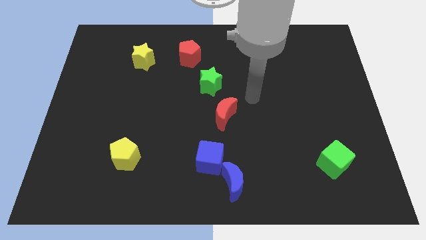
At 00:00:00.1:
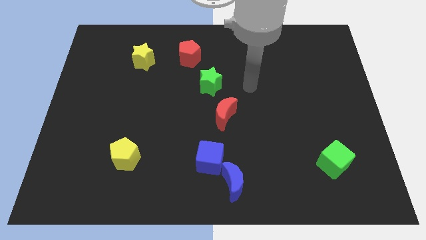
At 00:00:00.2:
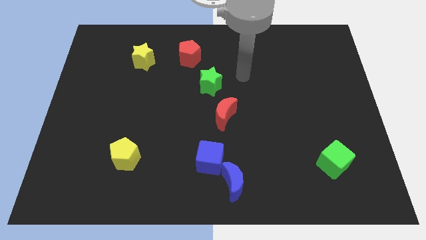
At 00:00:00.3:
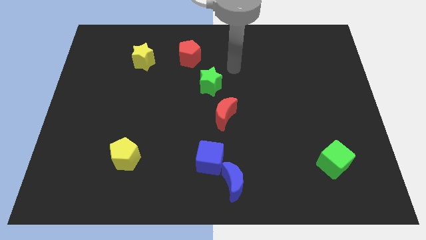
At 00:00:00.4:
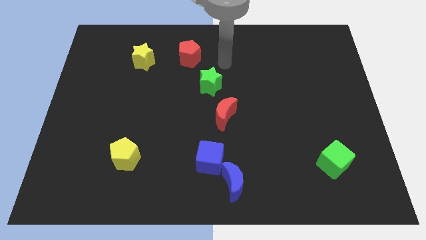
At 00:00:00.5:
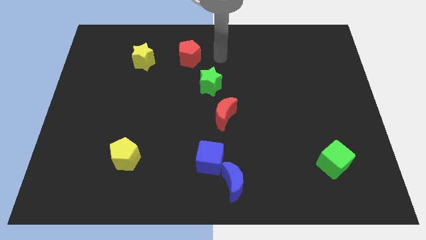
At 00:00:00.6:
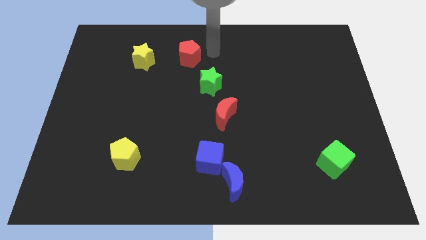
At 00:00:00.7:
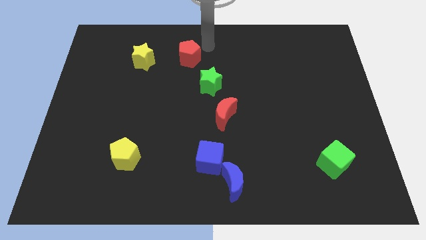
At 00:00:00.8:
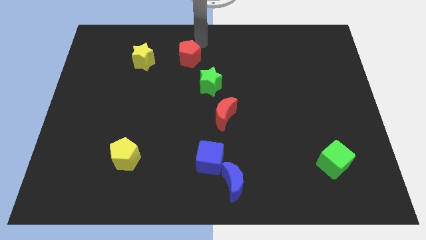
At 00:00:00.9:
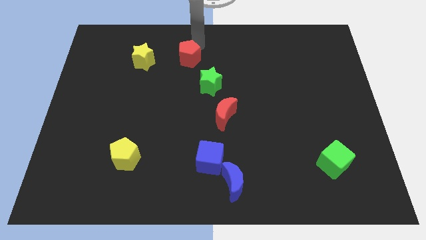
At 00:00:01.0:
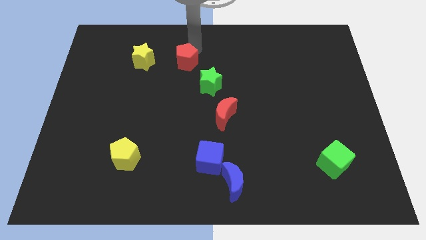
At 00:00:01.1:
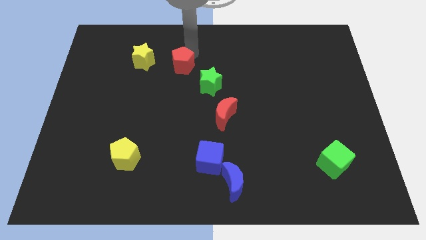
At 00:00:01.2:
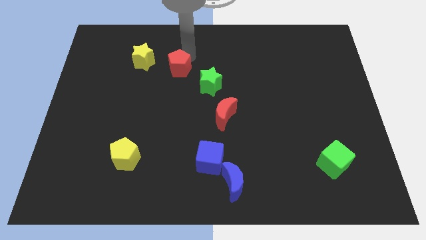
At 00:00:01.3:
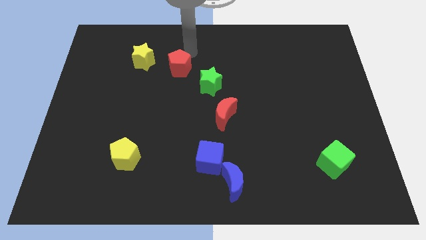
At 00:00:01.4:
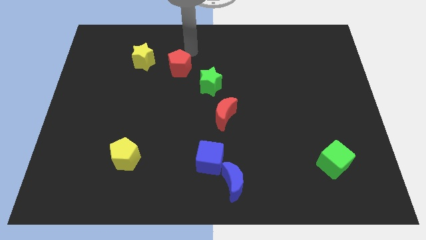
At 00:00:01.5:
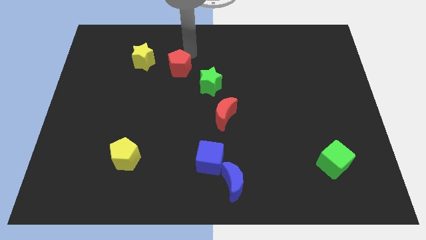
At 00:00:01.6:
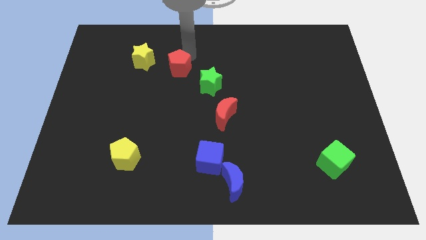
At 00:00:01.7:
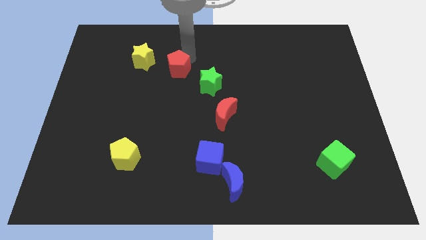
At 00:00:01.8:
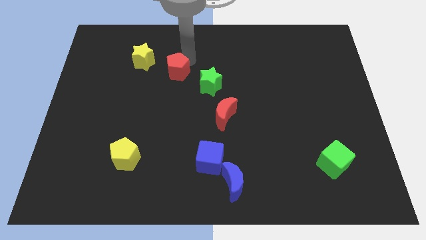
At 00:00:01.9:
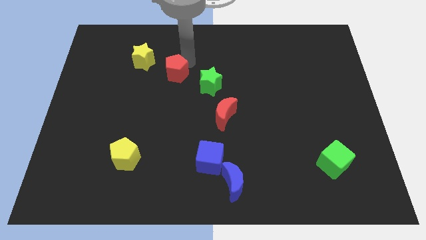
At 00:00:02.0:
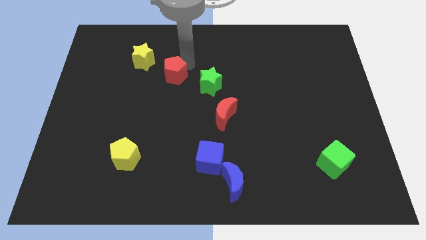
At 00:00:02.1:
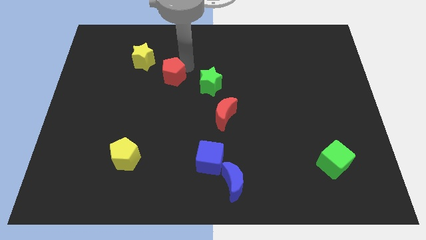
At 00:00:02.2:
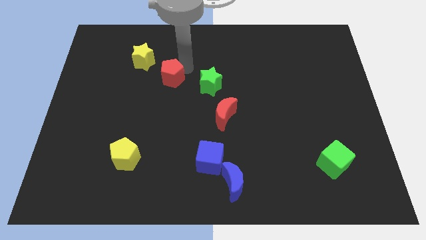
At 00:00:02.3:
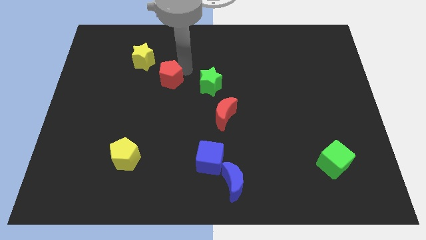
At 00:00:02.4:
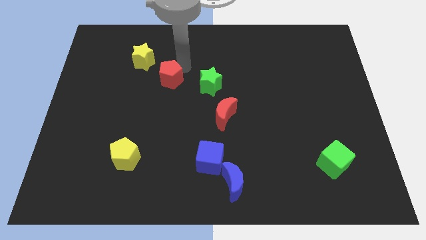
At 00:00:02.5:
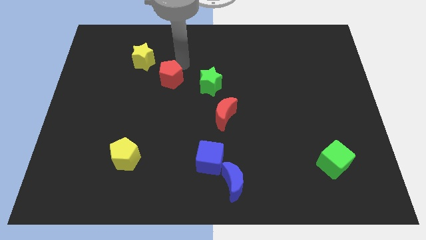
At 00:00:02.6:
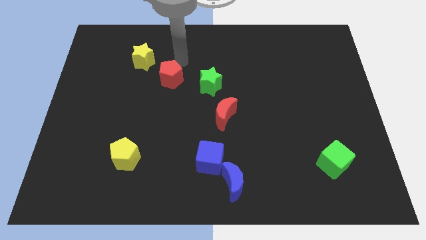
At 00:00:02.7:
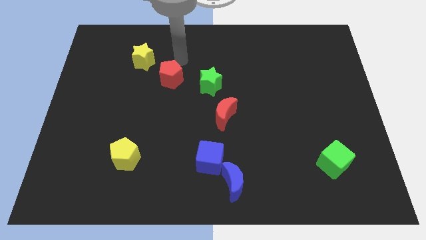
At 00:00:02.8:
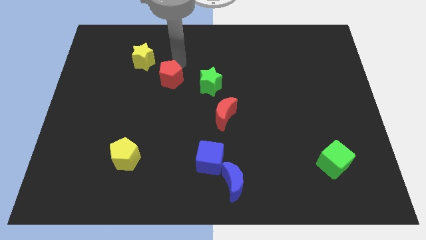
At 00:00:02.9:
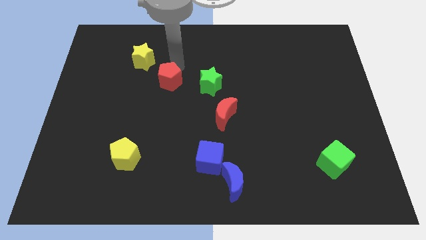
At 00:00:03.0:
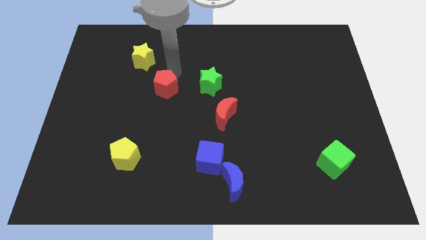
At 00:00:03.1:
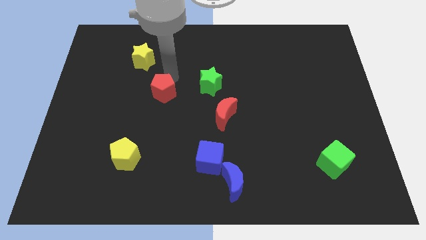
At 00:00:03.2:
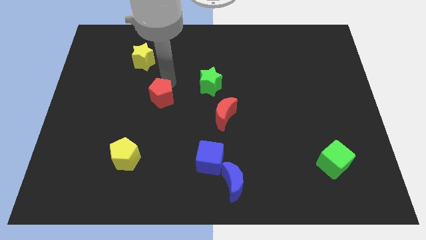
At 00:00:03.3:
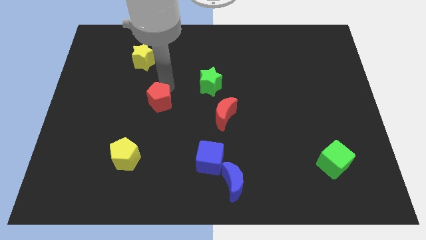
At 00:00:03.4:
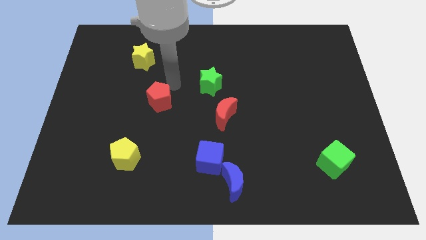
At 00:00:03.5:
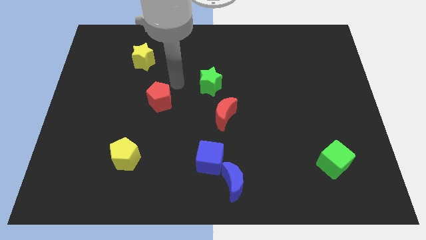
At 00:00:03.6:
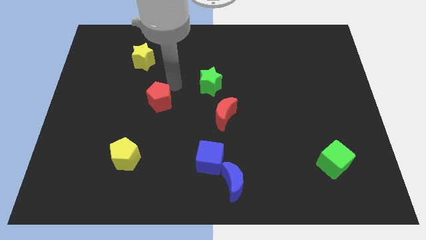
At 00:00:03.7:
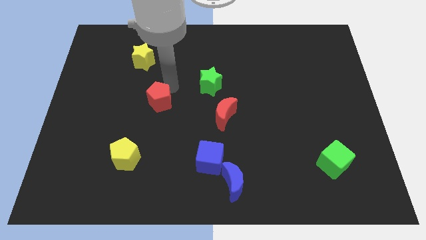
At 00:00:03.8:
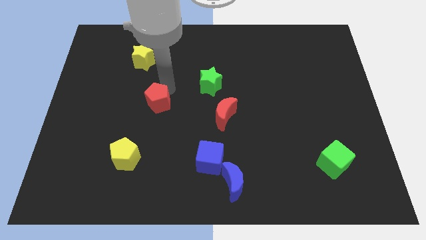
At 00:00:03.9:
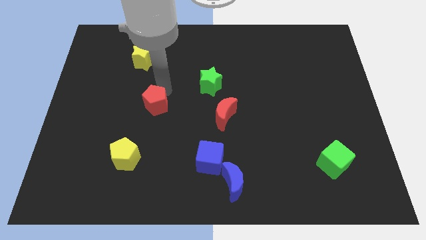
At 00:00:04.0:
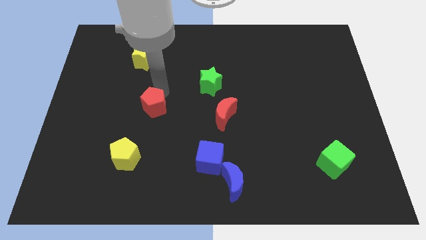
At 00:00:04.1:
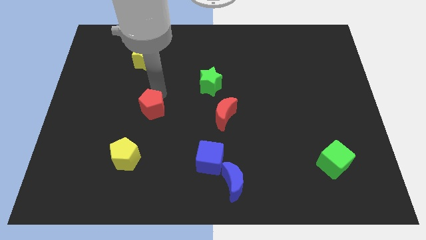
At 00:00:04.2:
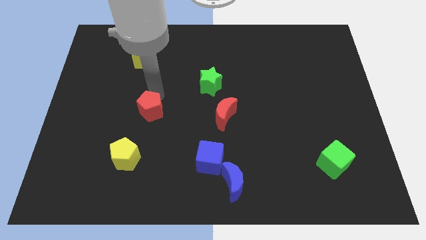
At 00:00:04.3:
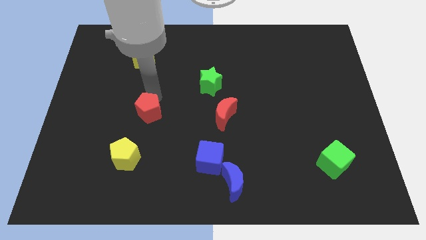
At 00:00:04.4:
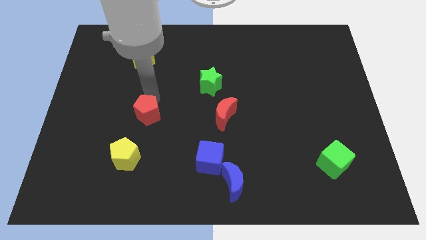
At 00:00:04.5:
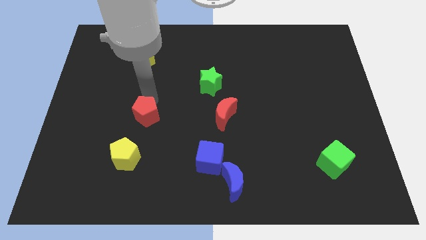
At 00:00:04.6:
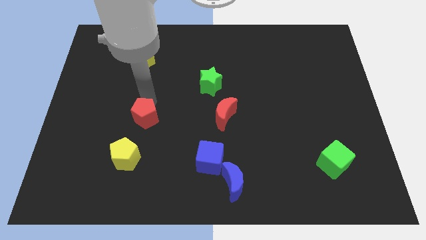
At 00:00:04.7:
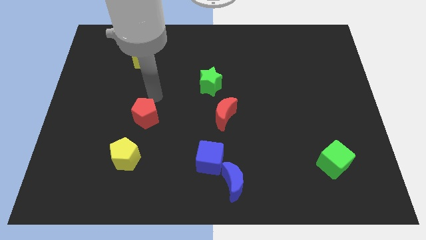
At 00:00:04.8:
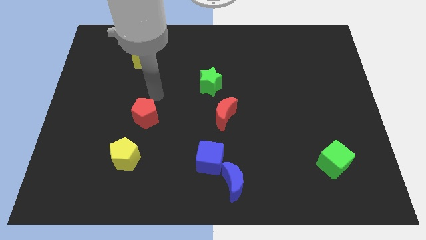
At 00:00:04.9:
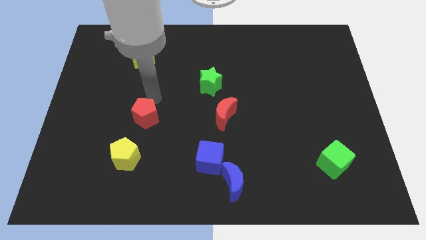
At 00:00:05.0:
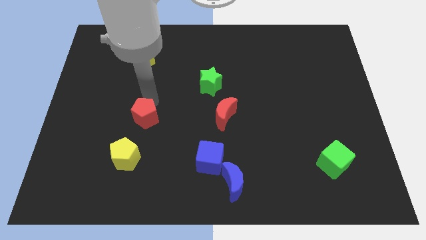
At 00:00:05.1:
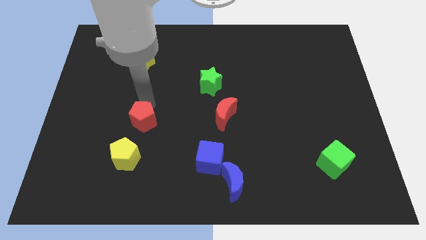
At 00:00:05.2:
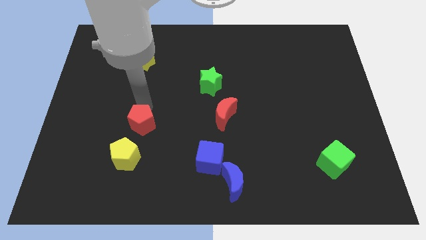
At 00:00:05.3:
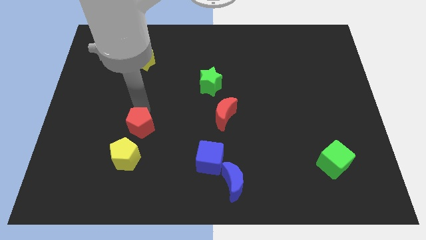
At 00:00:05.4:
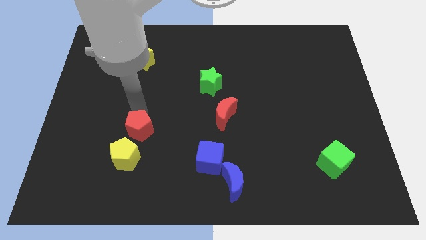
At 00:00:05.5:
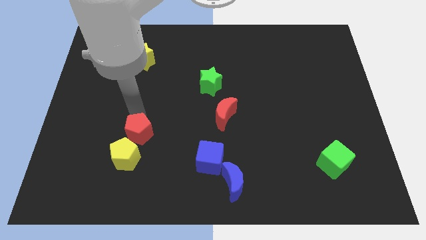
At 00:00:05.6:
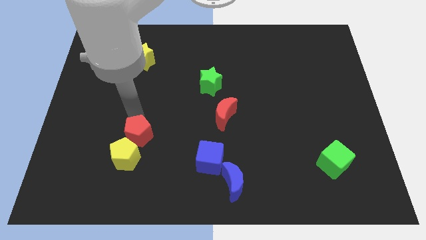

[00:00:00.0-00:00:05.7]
put the red pentagon to the yellow pentagon

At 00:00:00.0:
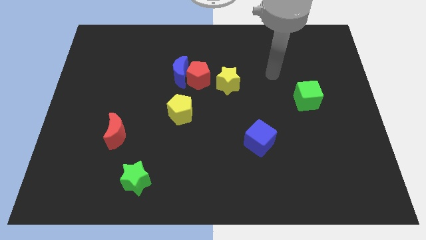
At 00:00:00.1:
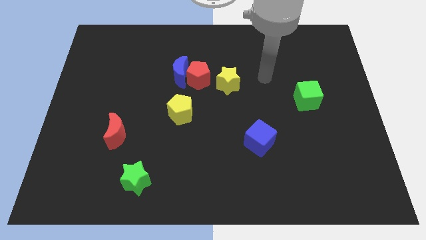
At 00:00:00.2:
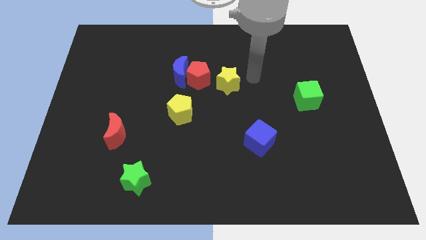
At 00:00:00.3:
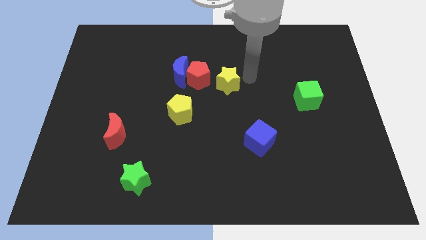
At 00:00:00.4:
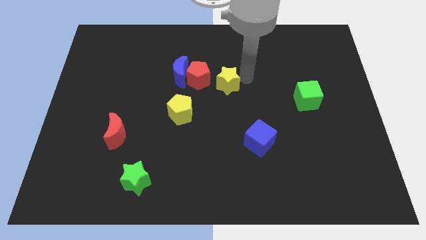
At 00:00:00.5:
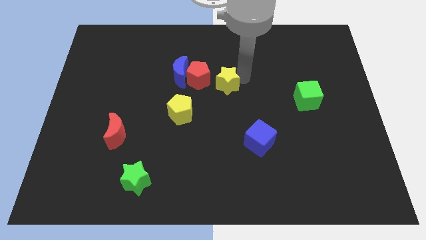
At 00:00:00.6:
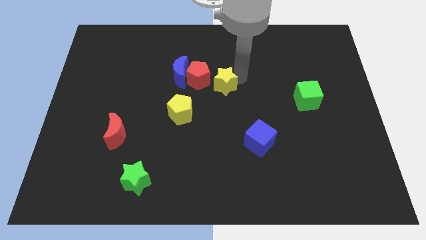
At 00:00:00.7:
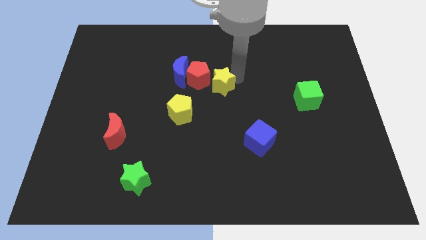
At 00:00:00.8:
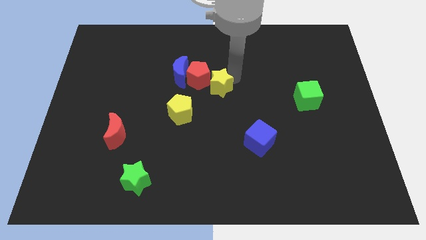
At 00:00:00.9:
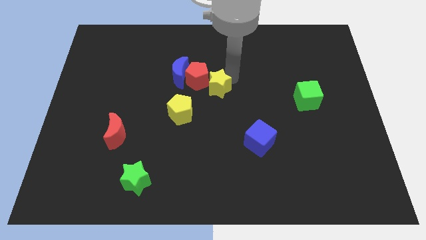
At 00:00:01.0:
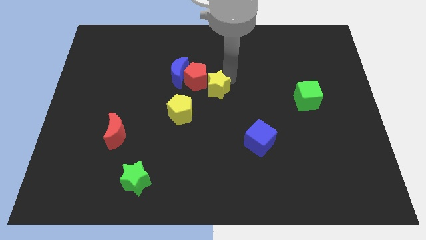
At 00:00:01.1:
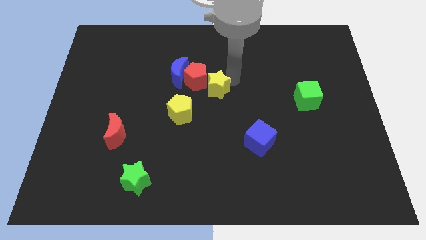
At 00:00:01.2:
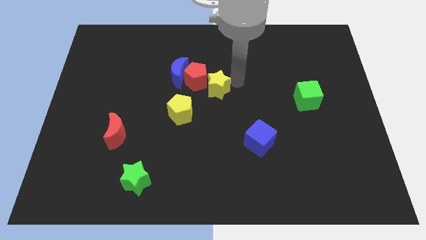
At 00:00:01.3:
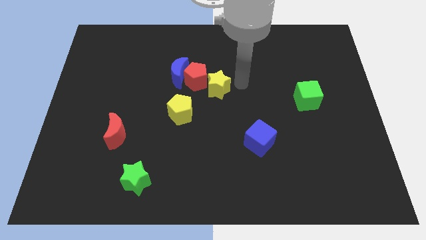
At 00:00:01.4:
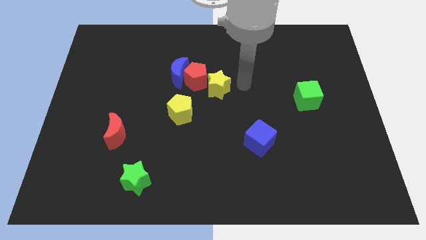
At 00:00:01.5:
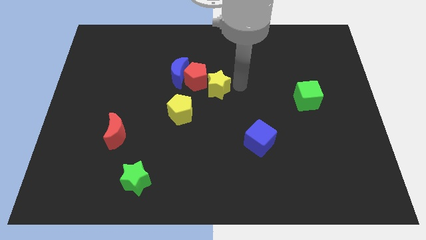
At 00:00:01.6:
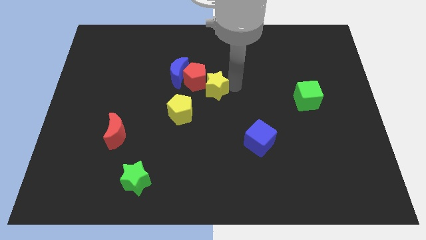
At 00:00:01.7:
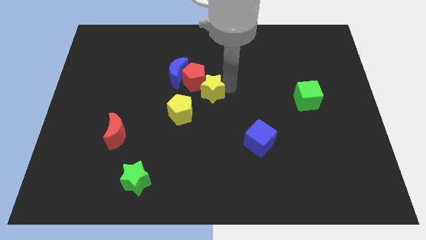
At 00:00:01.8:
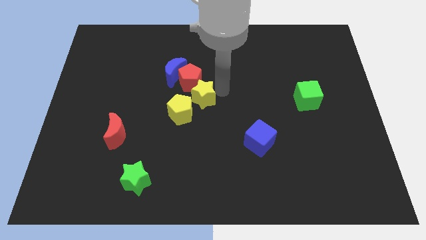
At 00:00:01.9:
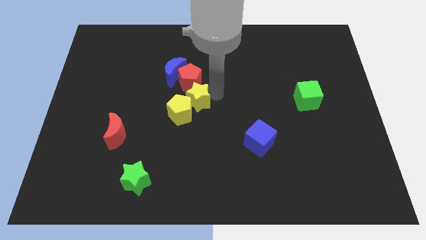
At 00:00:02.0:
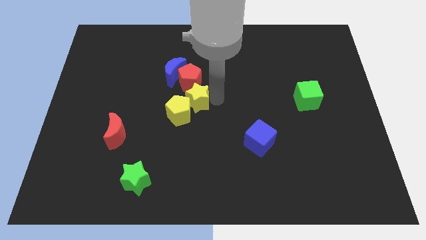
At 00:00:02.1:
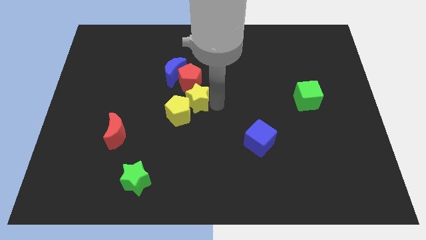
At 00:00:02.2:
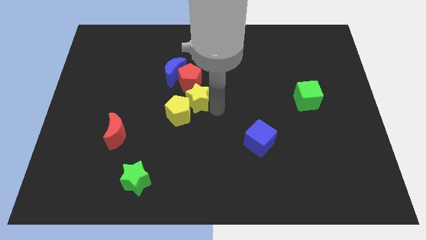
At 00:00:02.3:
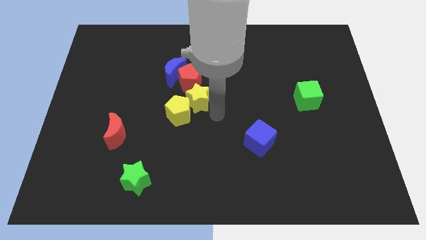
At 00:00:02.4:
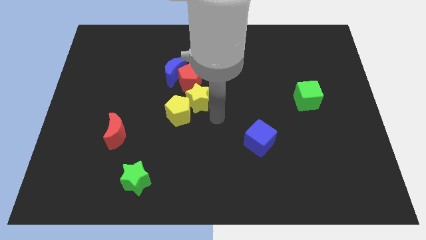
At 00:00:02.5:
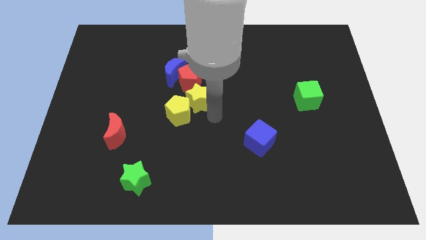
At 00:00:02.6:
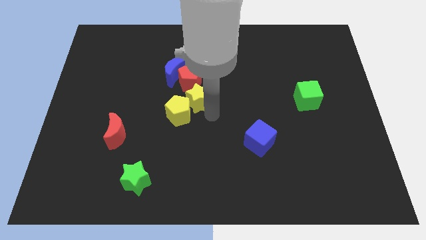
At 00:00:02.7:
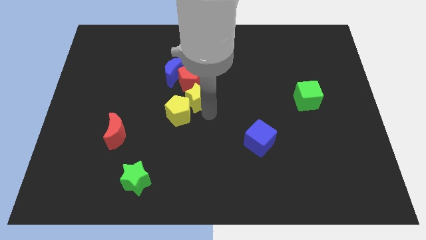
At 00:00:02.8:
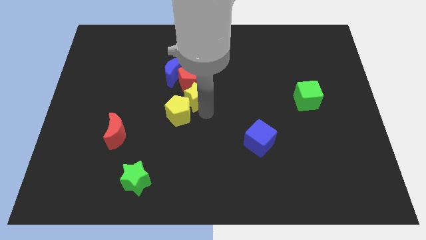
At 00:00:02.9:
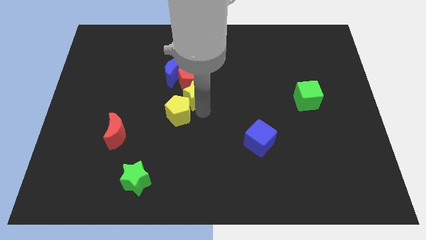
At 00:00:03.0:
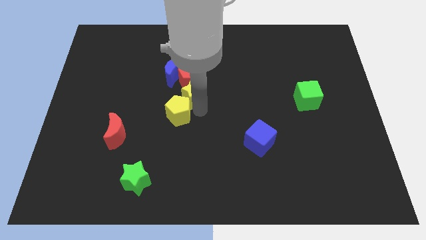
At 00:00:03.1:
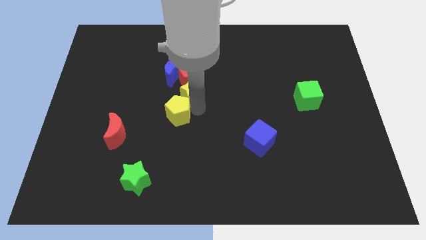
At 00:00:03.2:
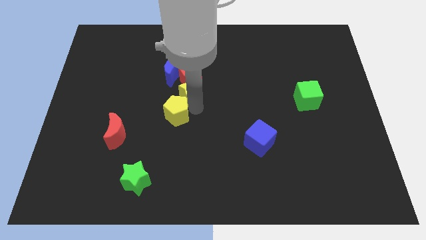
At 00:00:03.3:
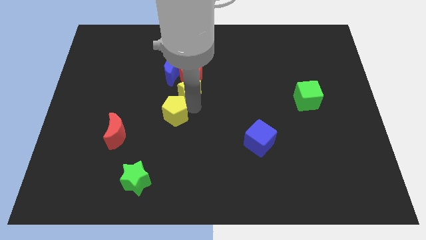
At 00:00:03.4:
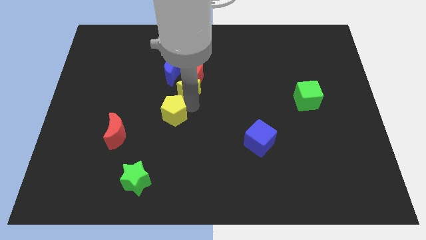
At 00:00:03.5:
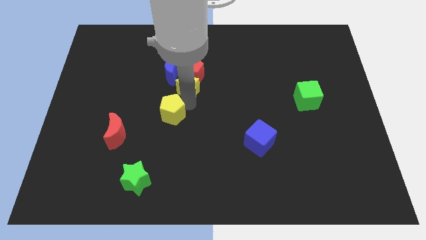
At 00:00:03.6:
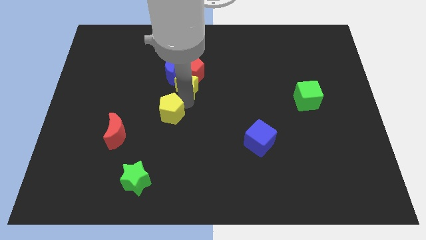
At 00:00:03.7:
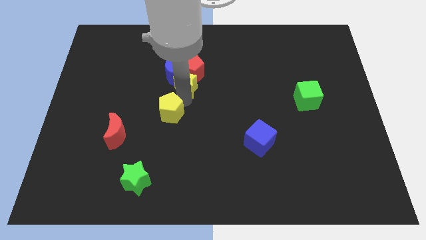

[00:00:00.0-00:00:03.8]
put the yellow star close to the blue moon
